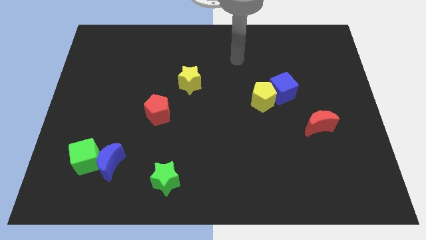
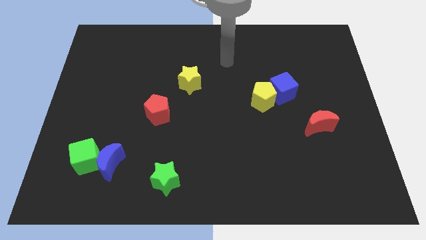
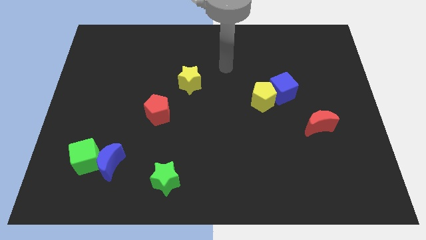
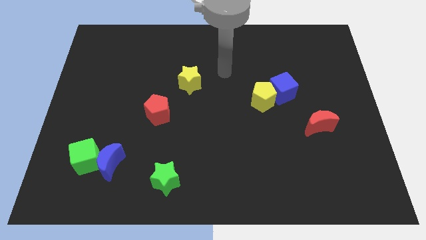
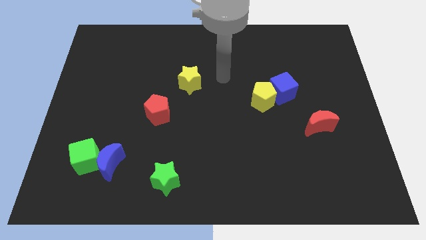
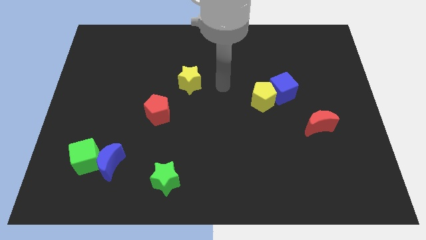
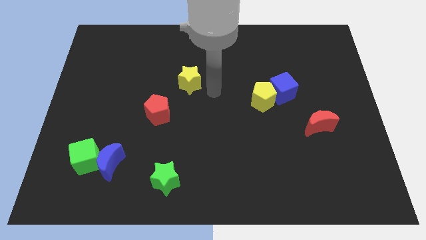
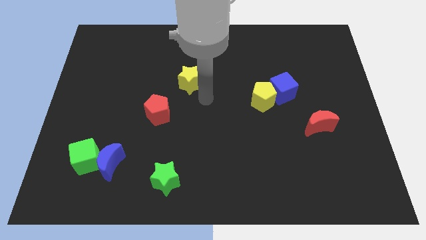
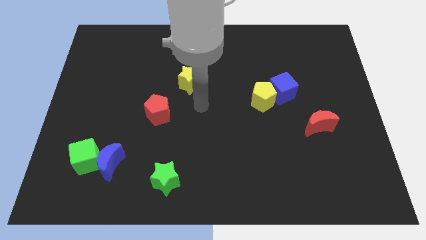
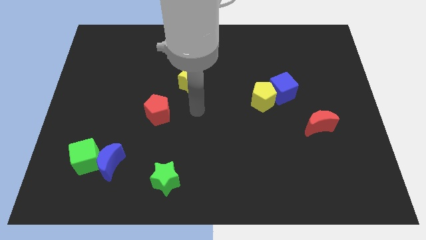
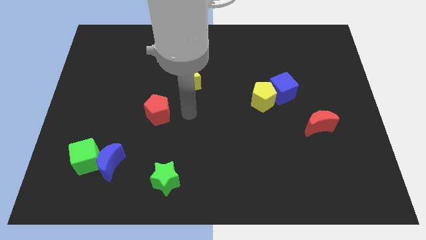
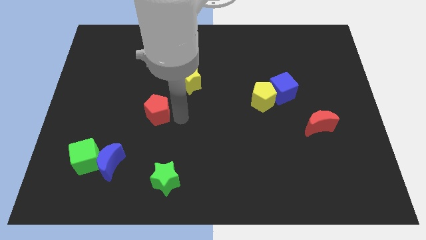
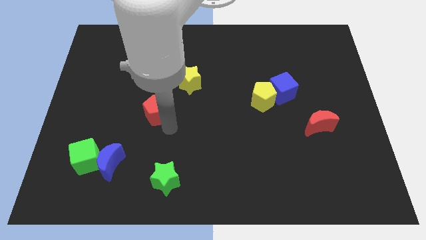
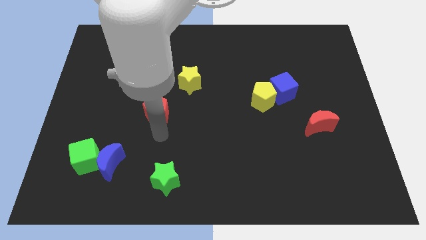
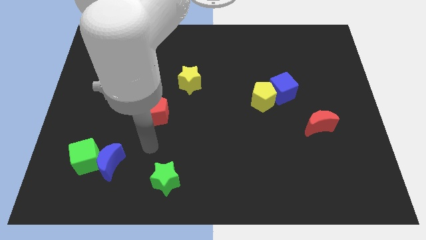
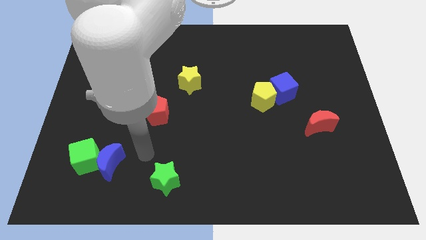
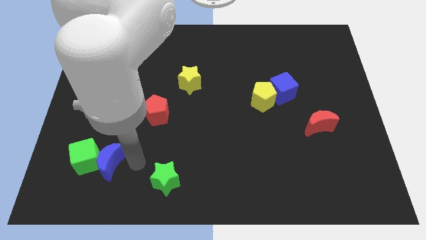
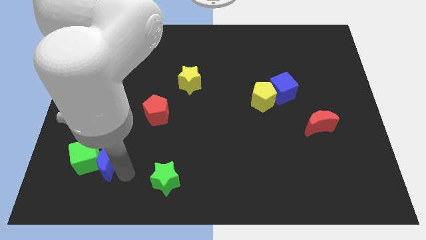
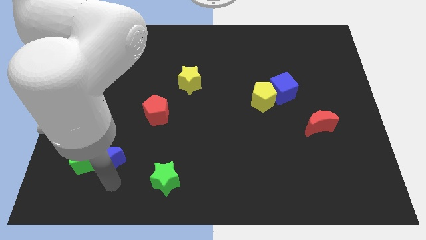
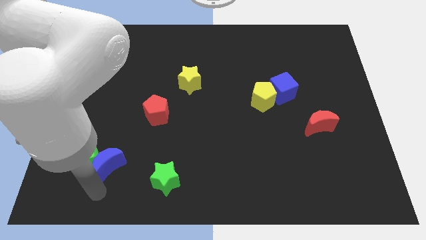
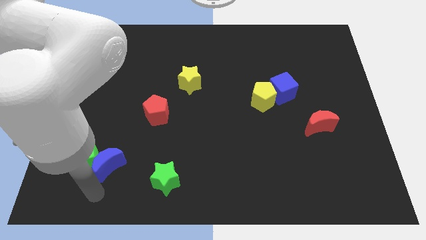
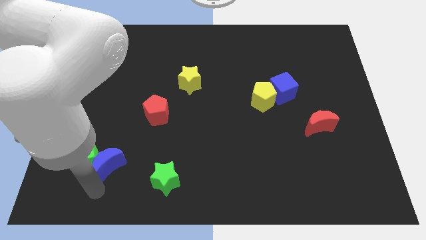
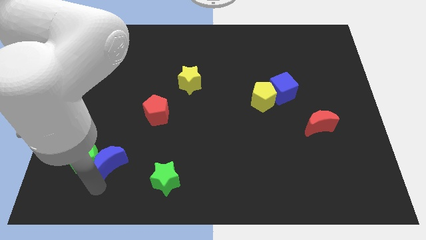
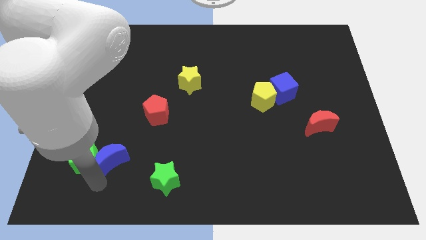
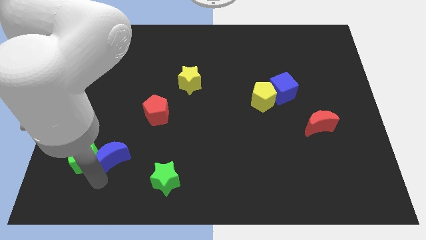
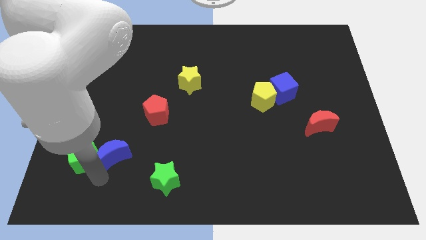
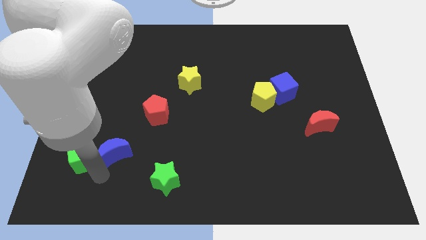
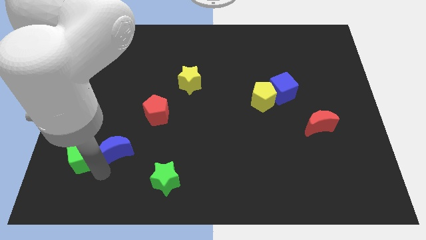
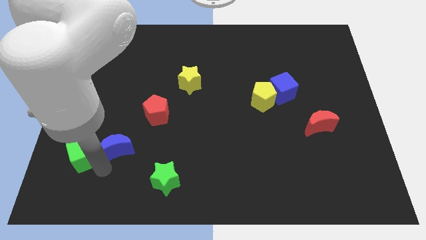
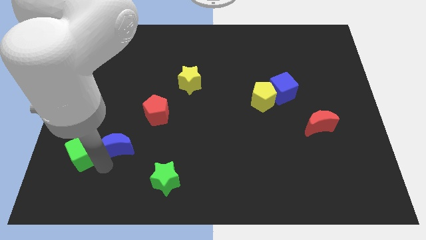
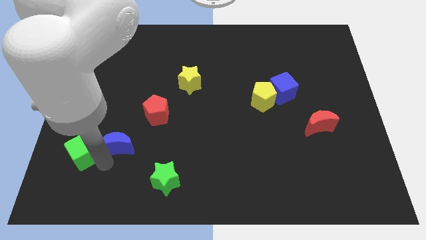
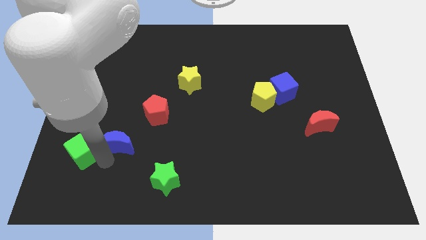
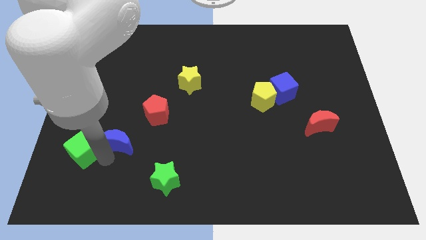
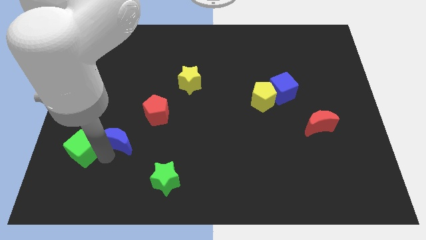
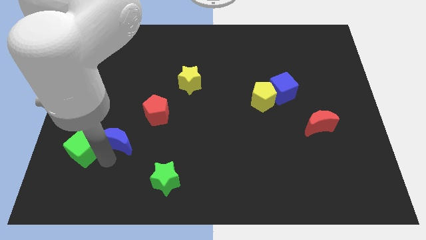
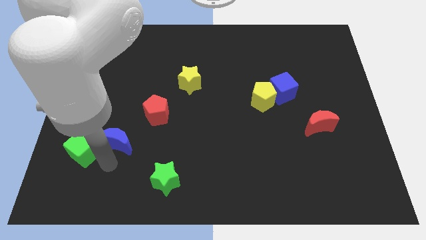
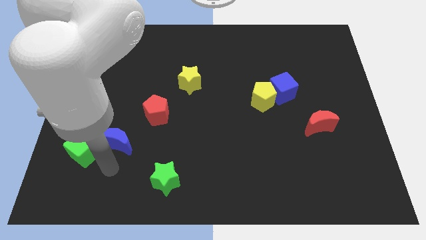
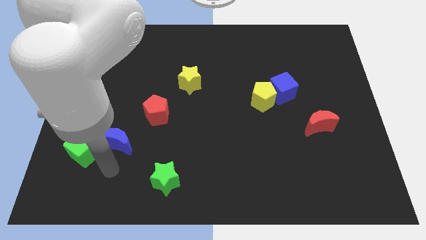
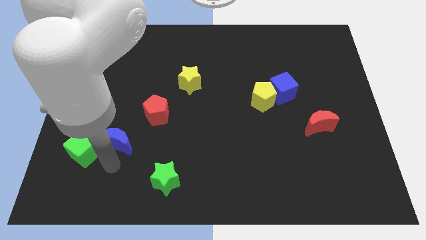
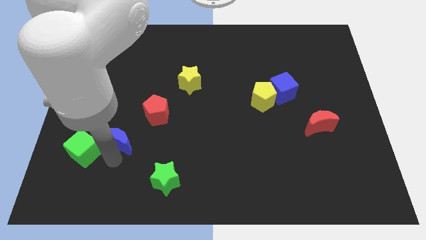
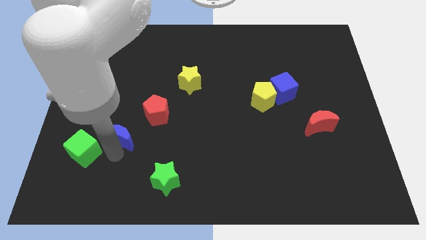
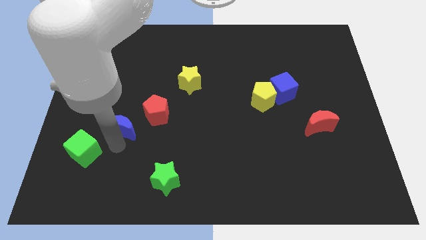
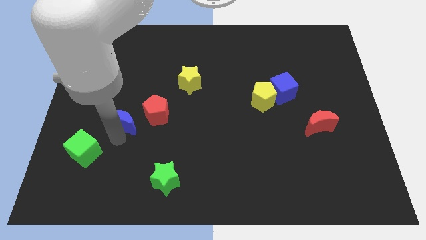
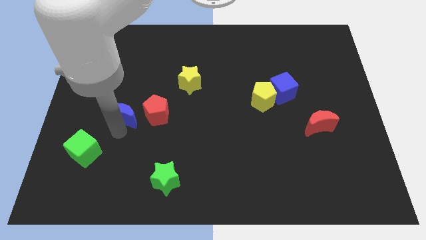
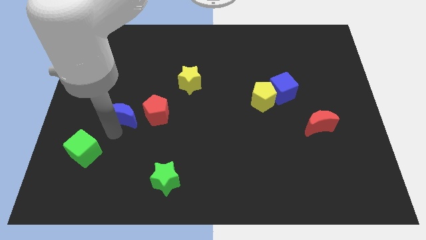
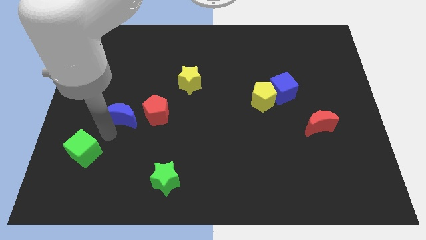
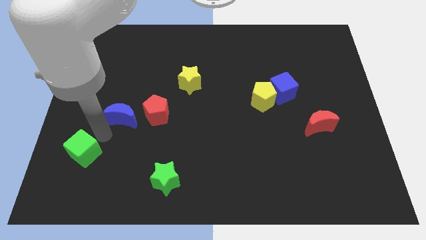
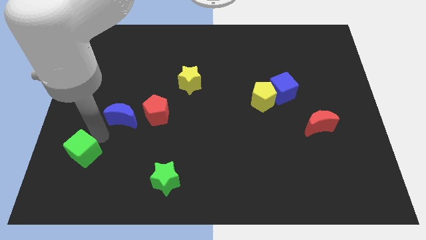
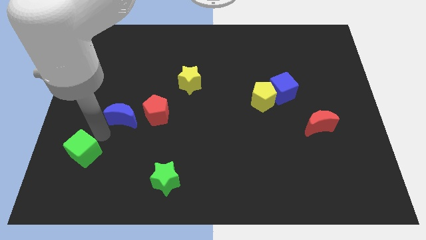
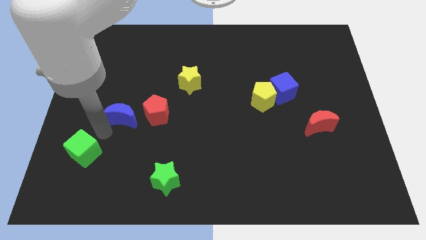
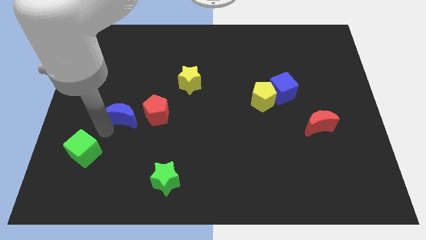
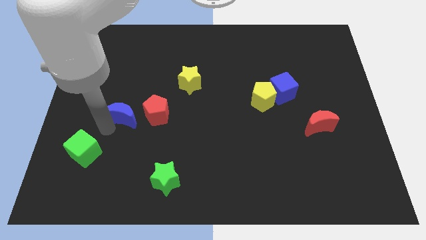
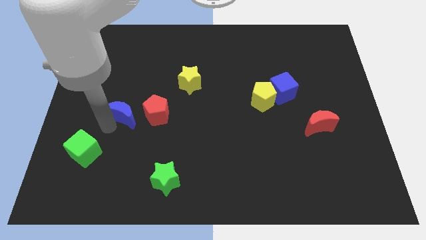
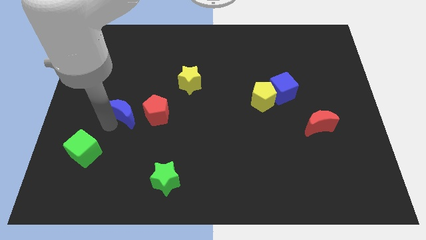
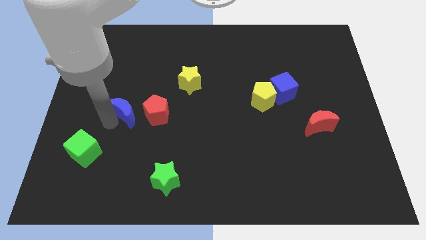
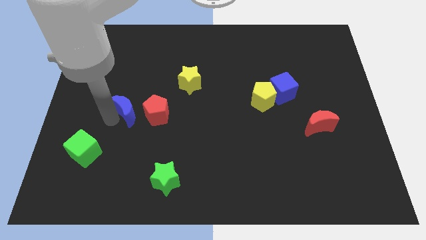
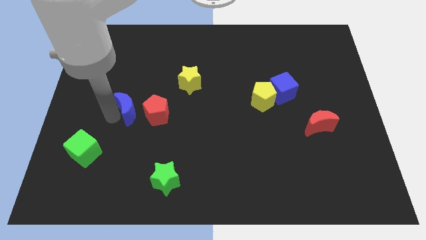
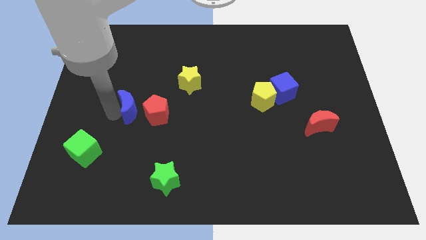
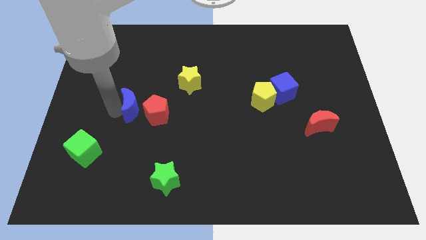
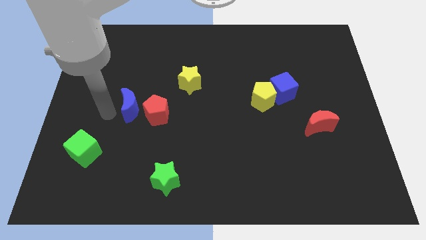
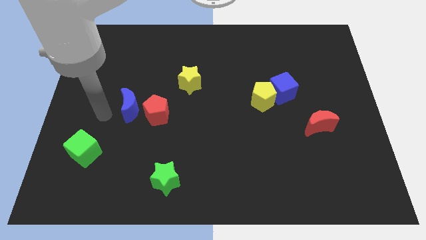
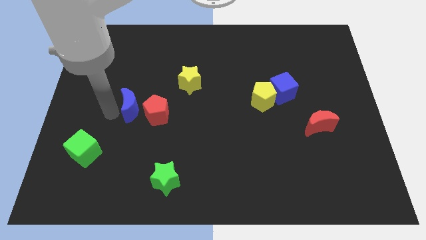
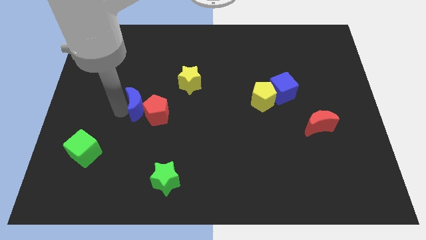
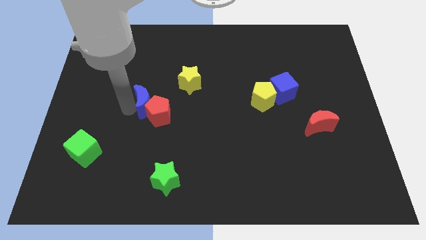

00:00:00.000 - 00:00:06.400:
push the blue moon to the bottom left side of the yellow star

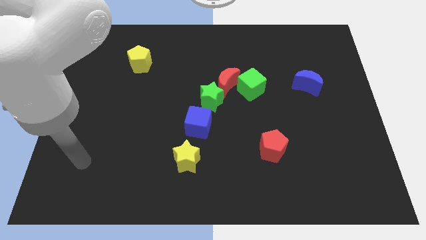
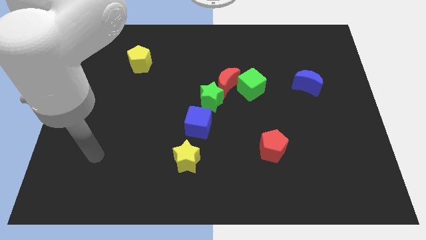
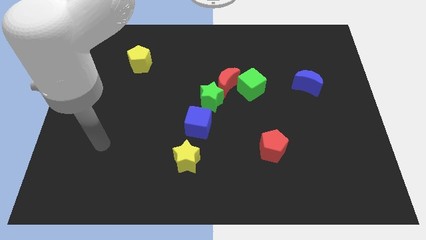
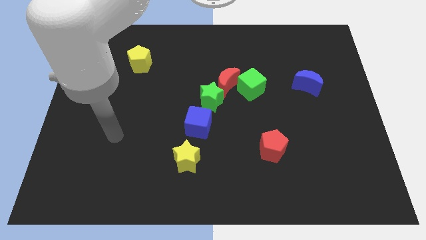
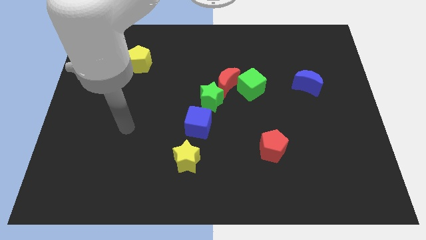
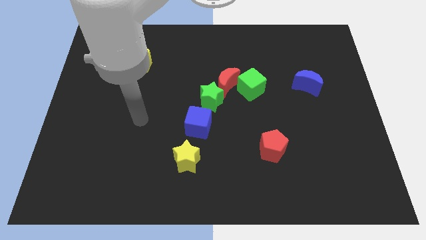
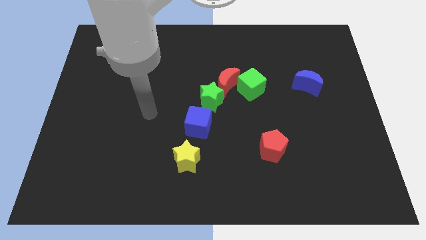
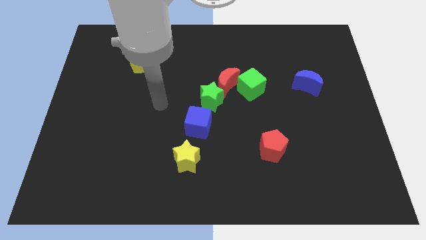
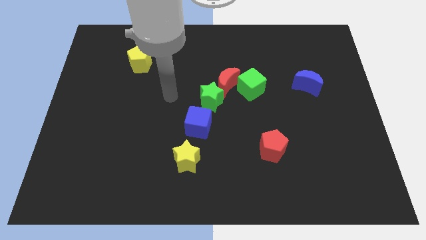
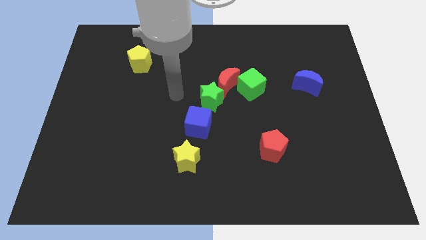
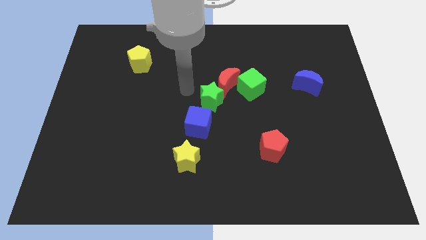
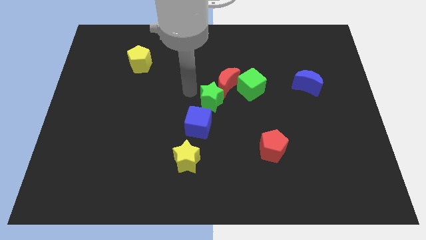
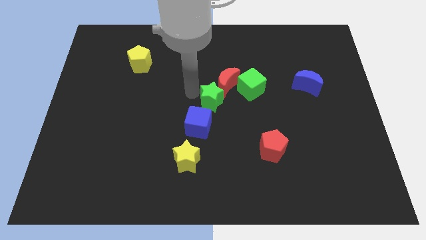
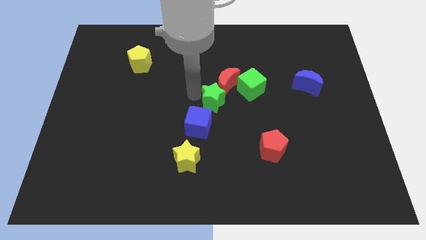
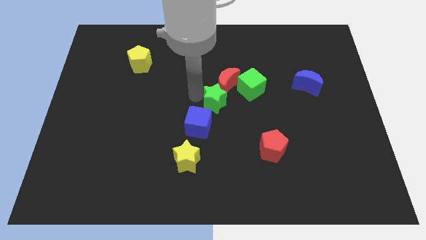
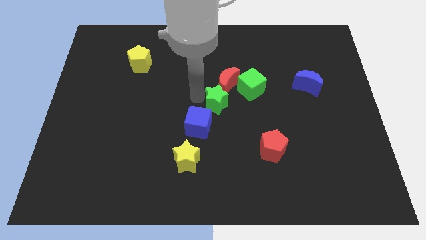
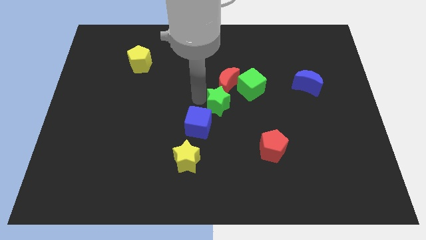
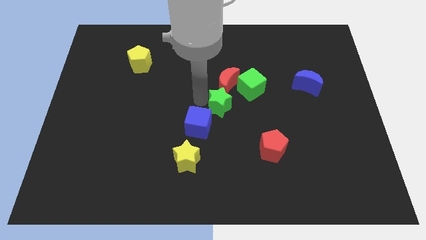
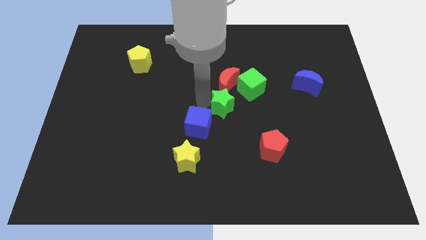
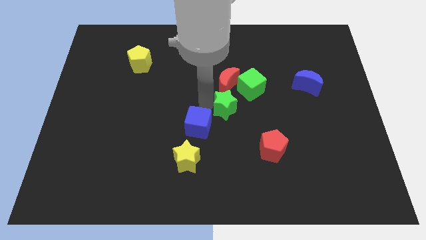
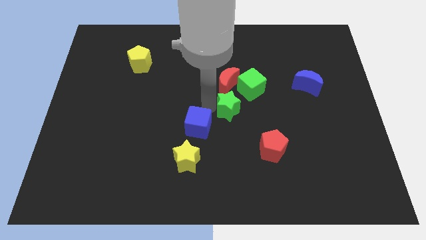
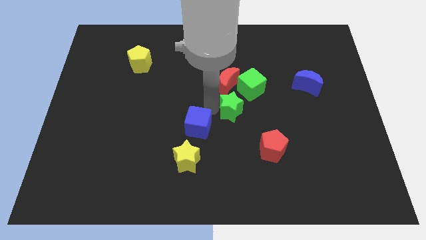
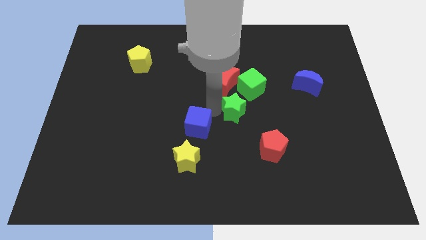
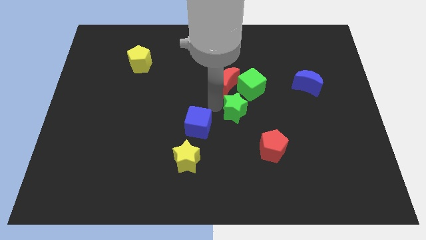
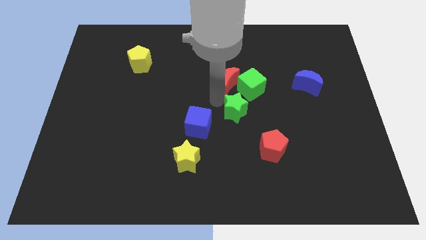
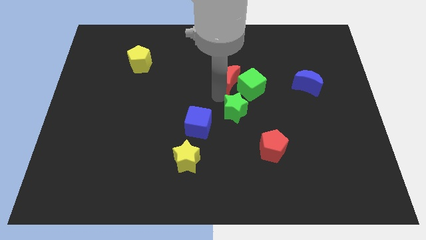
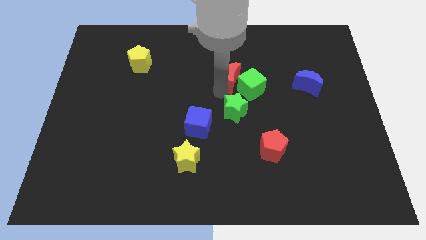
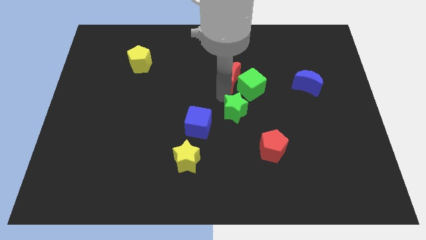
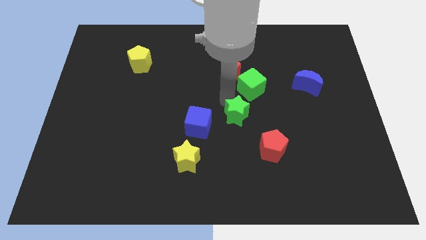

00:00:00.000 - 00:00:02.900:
put the green star to the top left side of the red pentagon
